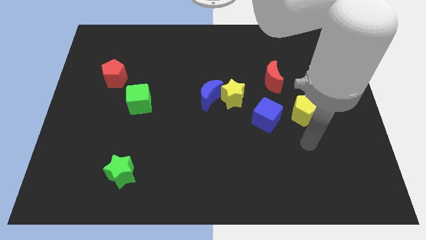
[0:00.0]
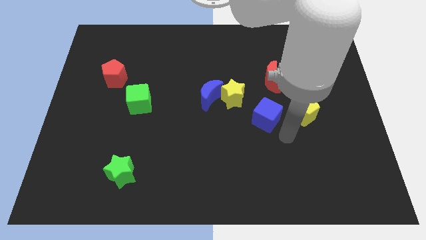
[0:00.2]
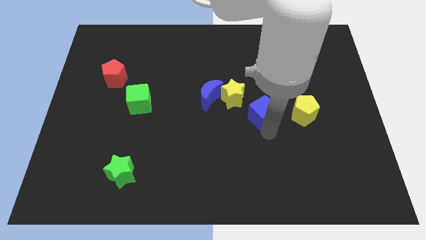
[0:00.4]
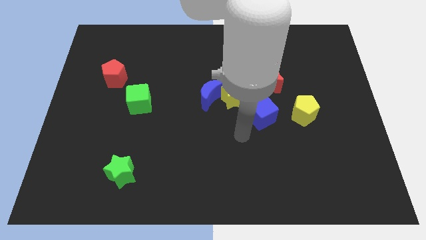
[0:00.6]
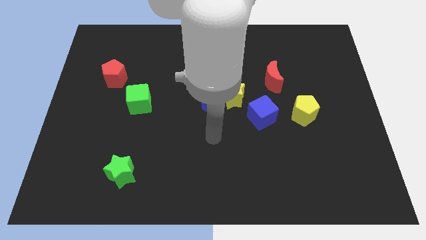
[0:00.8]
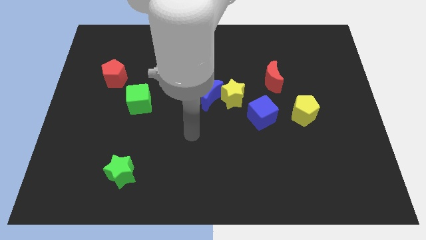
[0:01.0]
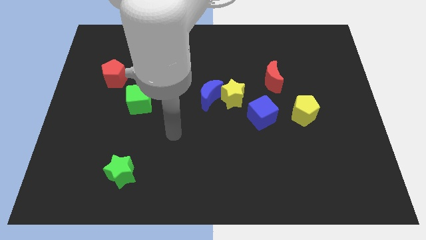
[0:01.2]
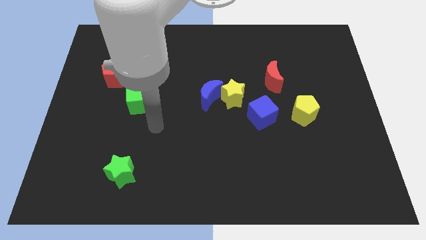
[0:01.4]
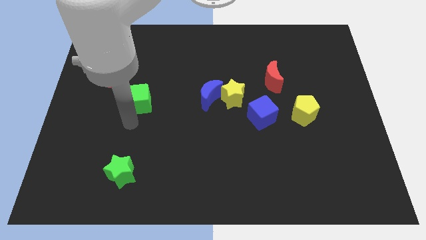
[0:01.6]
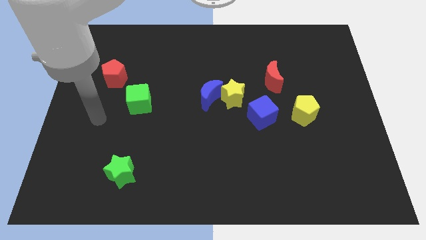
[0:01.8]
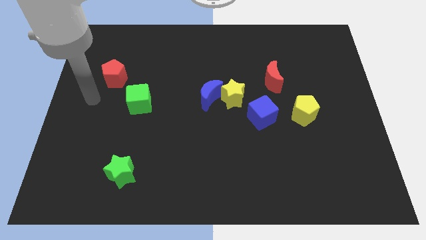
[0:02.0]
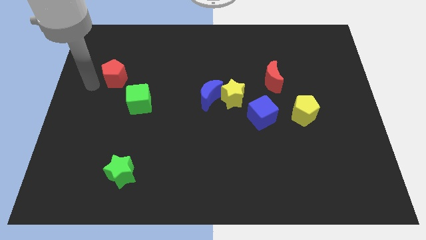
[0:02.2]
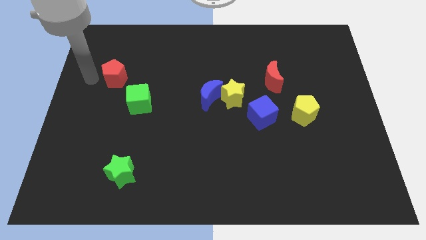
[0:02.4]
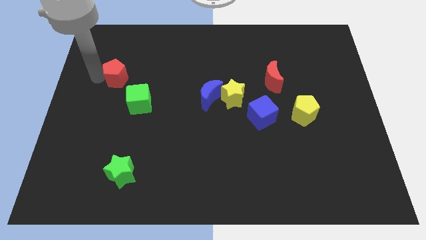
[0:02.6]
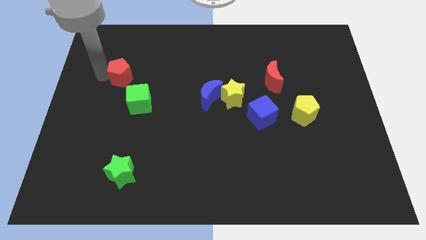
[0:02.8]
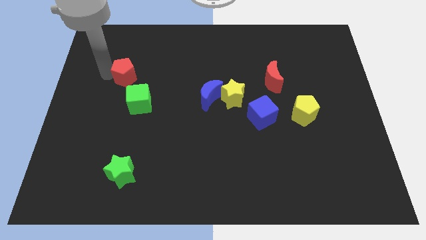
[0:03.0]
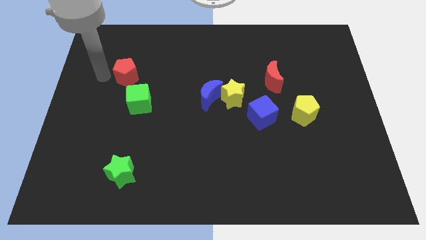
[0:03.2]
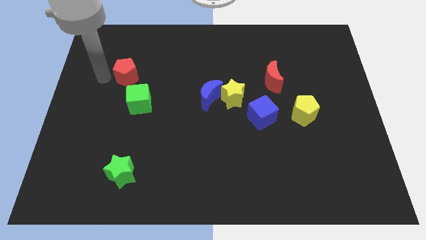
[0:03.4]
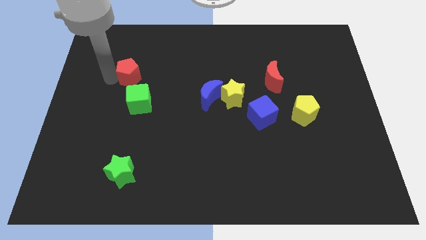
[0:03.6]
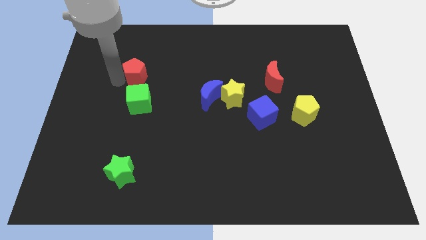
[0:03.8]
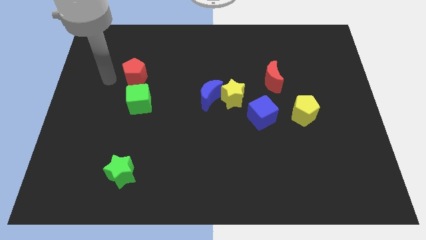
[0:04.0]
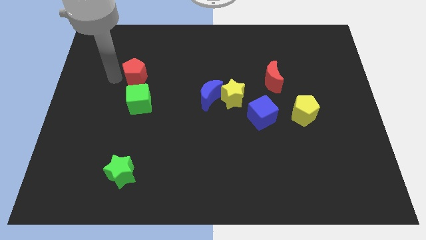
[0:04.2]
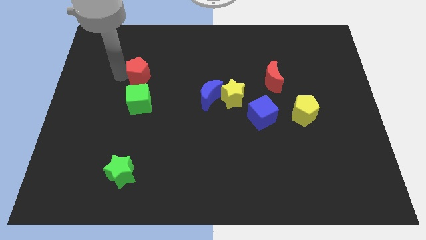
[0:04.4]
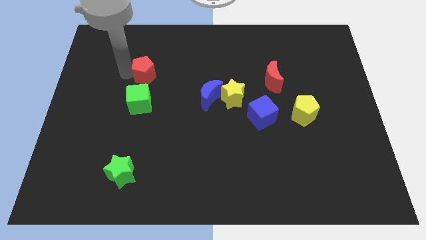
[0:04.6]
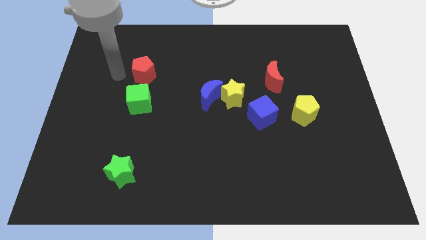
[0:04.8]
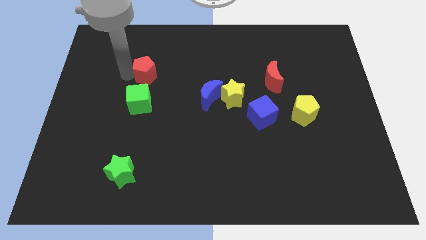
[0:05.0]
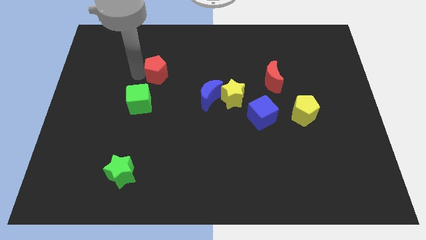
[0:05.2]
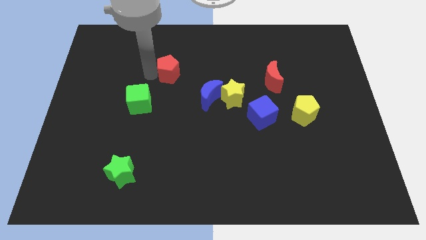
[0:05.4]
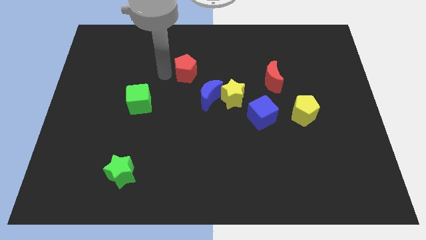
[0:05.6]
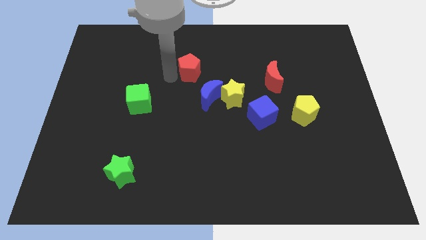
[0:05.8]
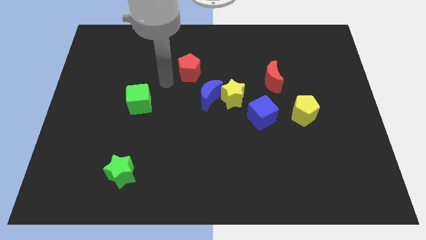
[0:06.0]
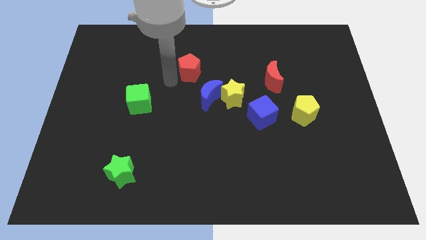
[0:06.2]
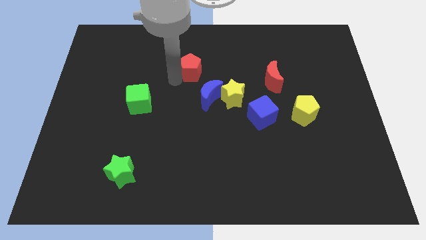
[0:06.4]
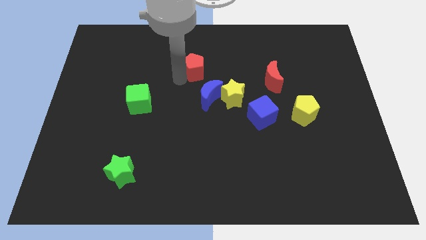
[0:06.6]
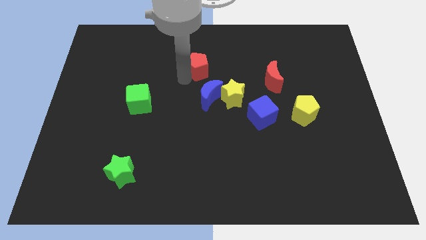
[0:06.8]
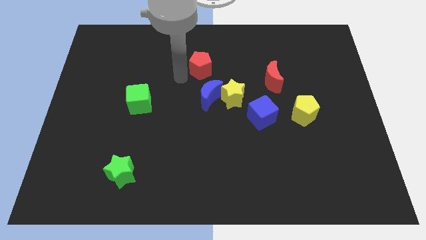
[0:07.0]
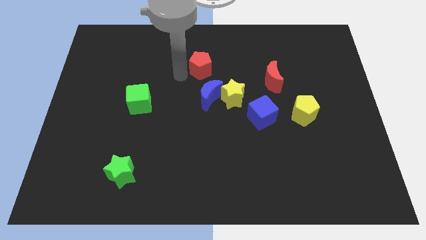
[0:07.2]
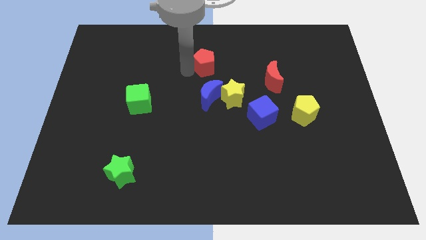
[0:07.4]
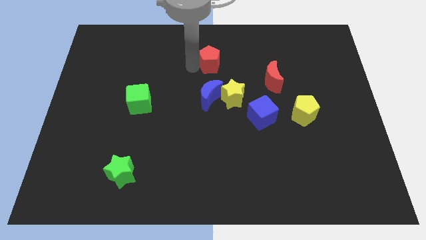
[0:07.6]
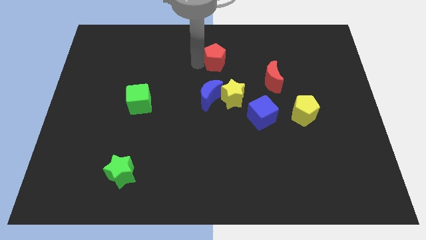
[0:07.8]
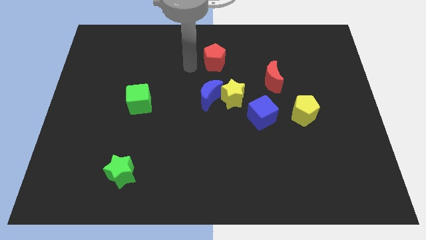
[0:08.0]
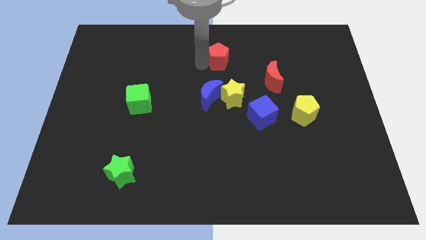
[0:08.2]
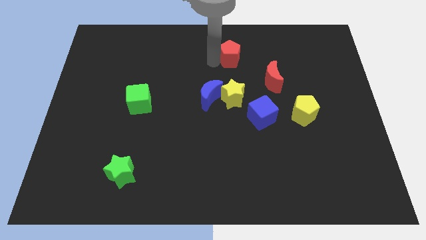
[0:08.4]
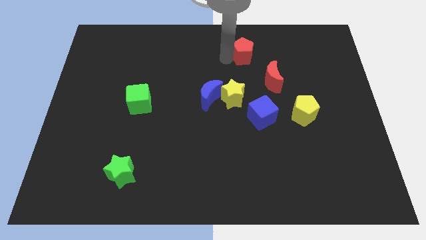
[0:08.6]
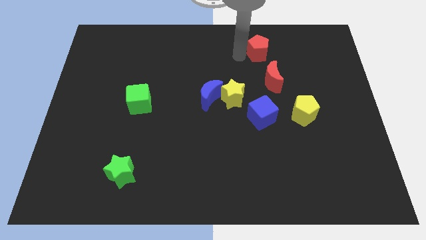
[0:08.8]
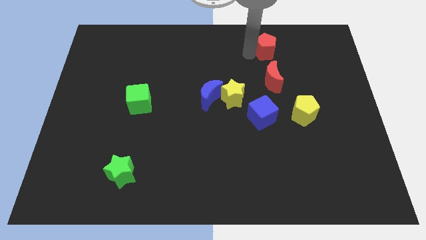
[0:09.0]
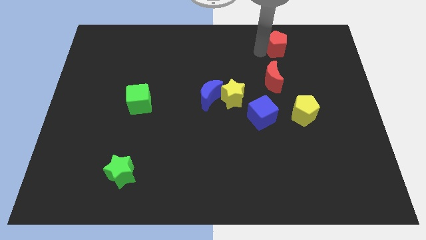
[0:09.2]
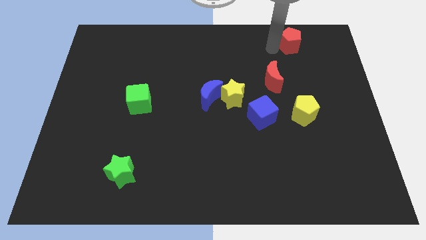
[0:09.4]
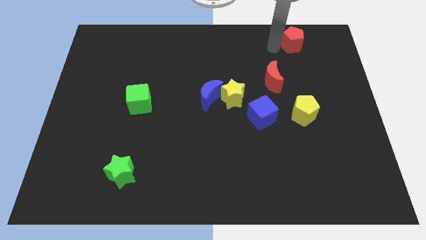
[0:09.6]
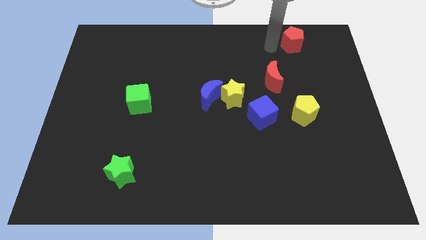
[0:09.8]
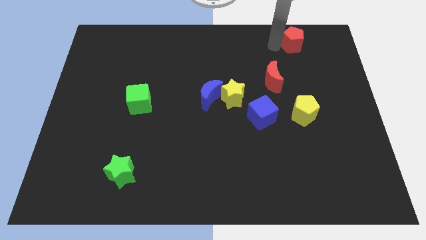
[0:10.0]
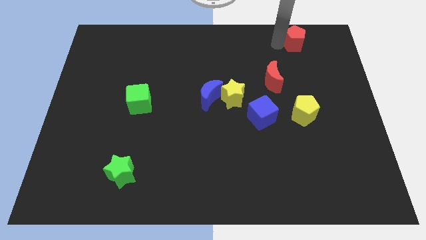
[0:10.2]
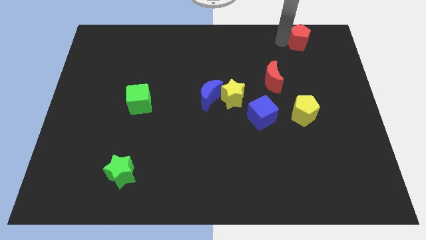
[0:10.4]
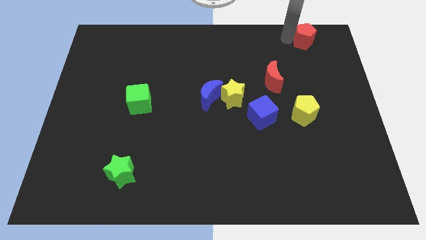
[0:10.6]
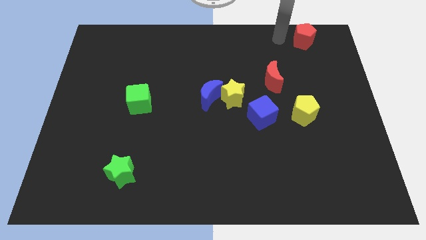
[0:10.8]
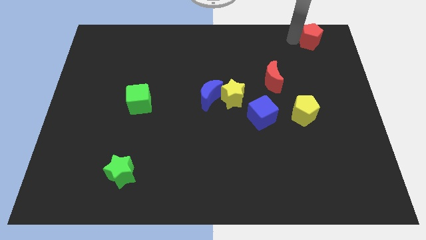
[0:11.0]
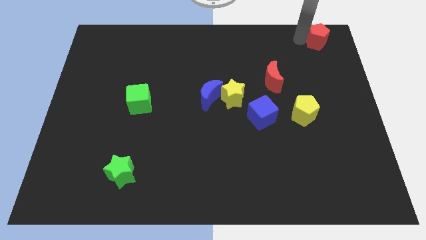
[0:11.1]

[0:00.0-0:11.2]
move the red pentagon to the top right corner

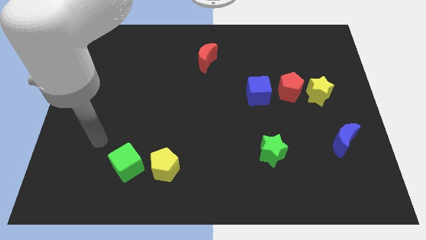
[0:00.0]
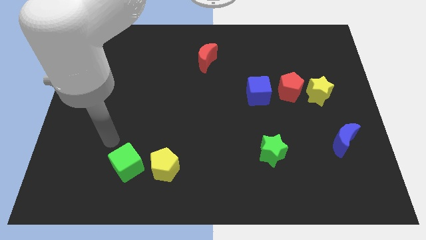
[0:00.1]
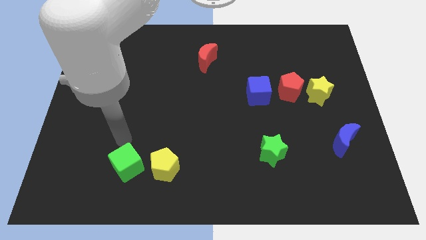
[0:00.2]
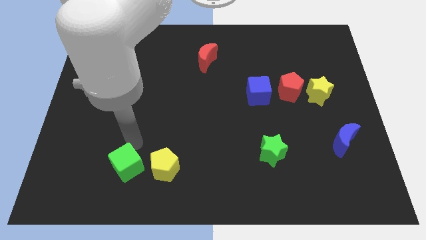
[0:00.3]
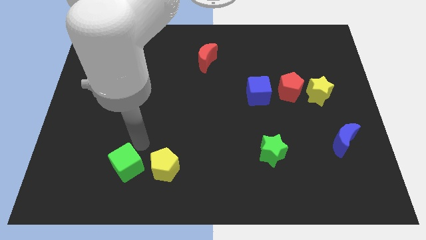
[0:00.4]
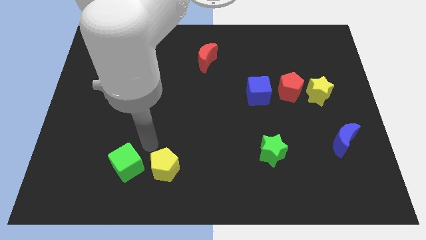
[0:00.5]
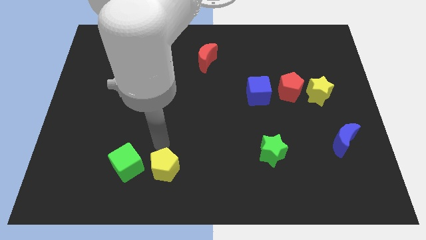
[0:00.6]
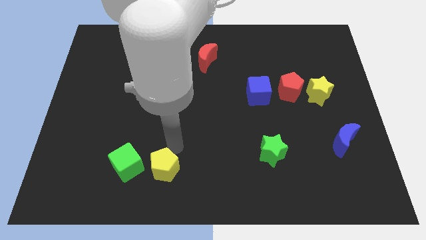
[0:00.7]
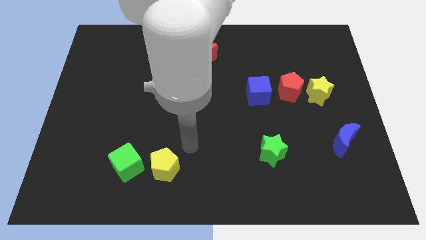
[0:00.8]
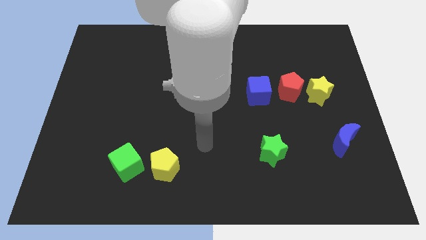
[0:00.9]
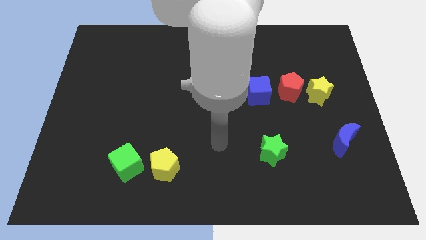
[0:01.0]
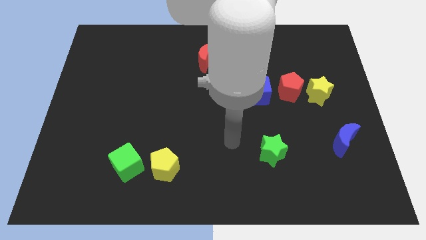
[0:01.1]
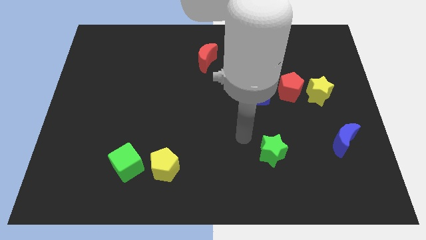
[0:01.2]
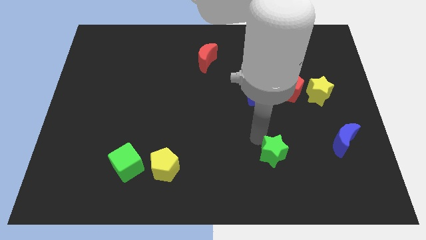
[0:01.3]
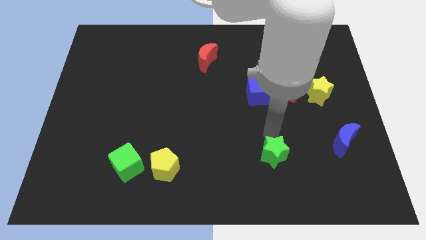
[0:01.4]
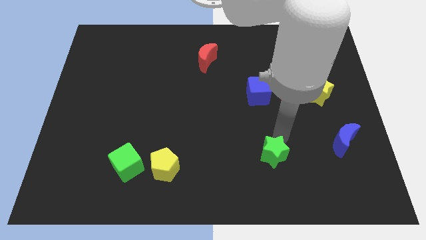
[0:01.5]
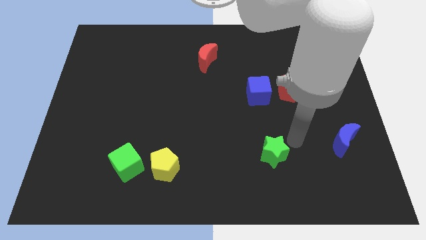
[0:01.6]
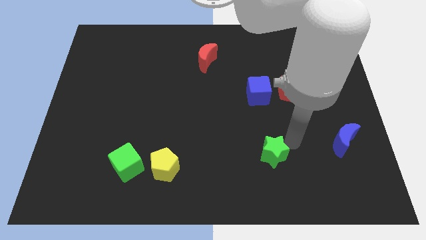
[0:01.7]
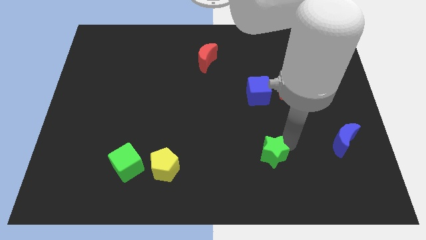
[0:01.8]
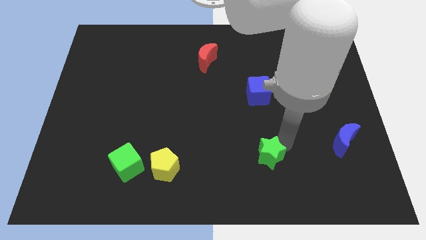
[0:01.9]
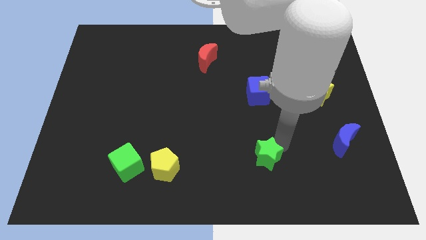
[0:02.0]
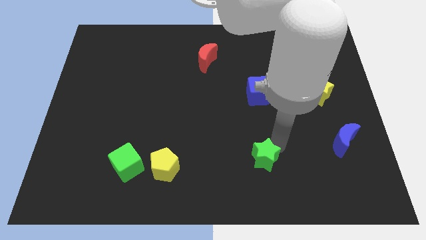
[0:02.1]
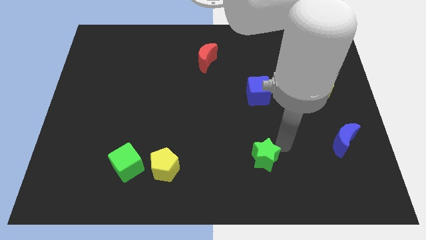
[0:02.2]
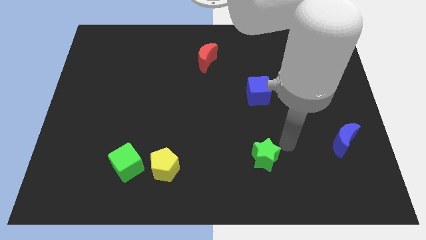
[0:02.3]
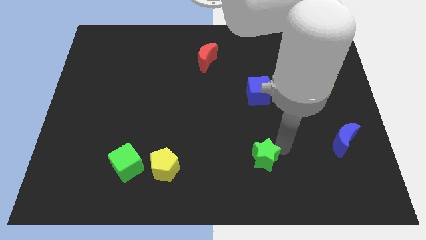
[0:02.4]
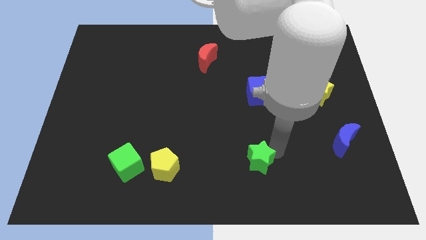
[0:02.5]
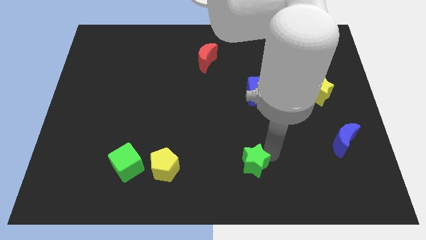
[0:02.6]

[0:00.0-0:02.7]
slide the green star to the bottom side
